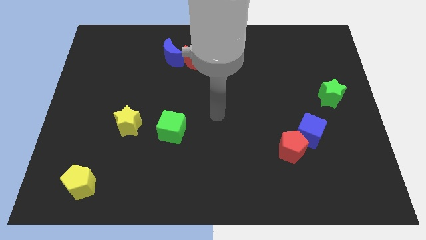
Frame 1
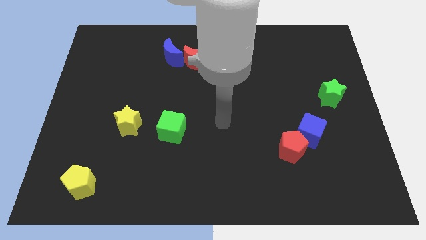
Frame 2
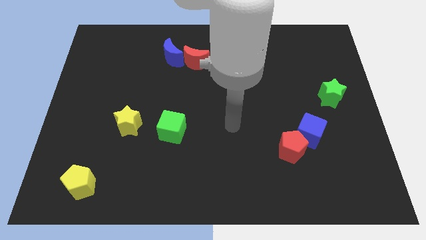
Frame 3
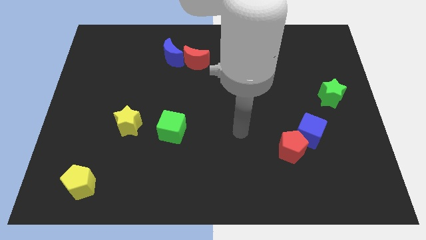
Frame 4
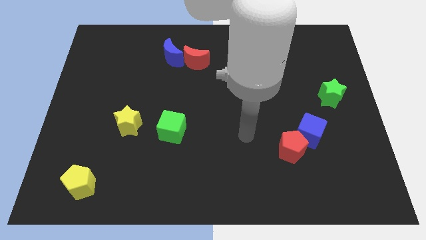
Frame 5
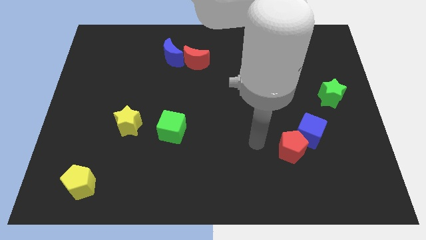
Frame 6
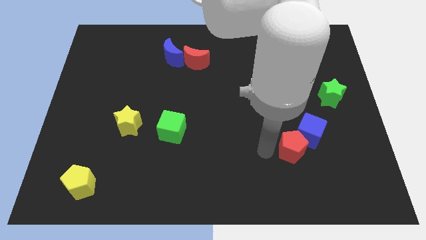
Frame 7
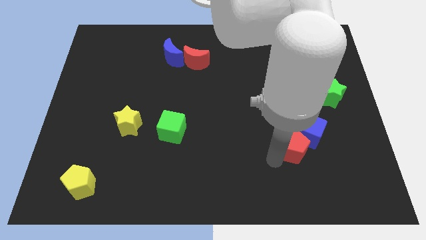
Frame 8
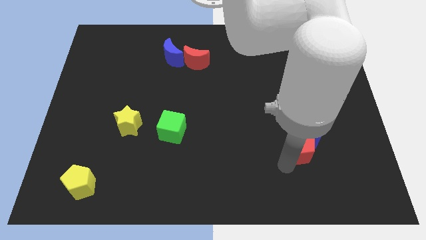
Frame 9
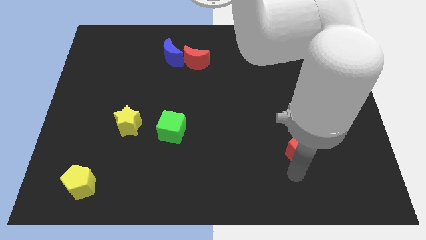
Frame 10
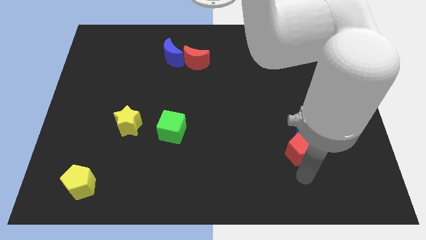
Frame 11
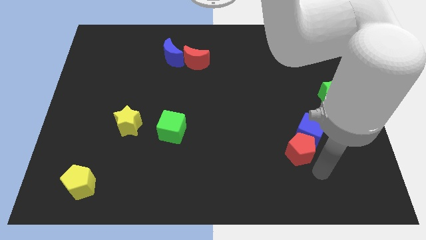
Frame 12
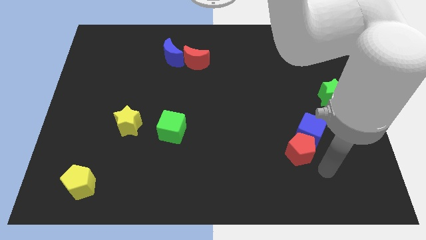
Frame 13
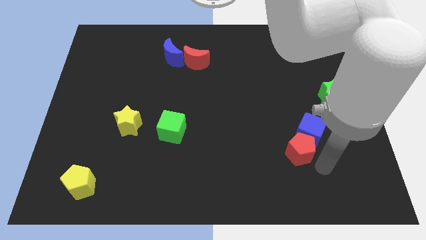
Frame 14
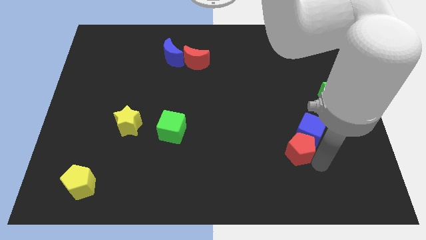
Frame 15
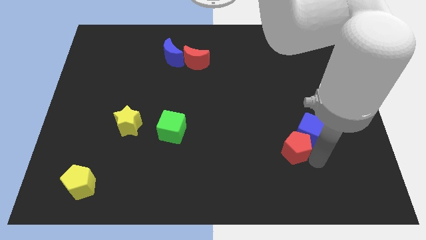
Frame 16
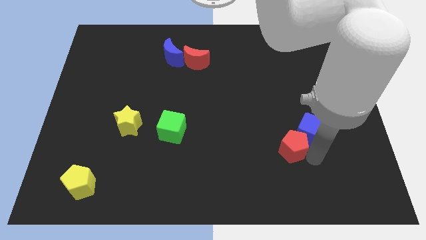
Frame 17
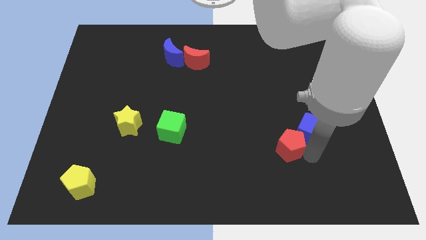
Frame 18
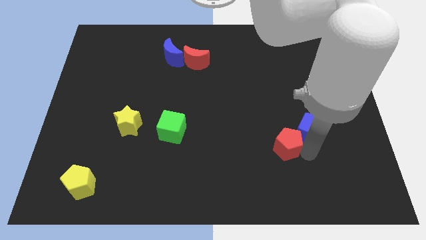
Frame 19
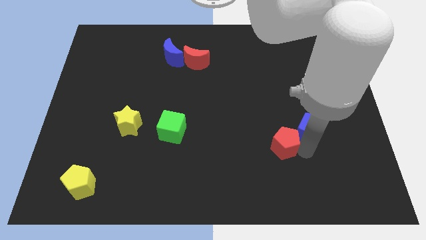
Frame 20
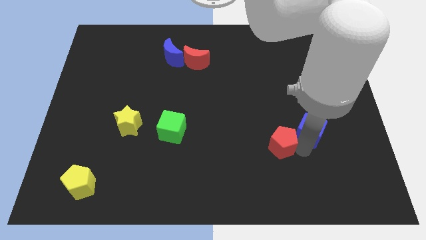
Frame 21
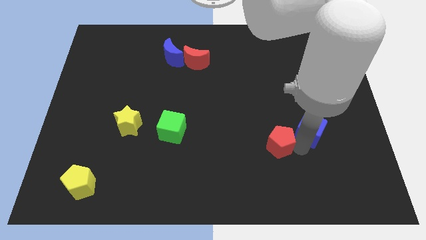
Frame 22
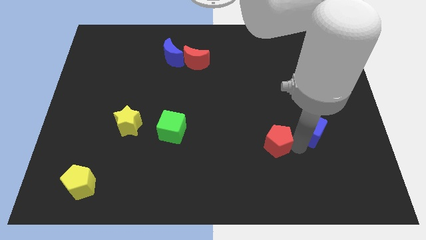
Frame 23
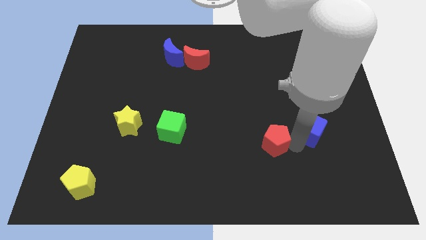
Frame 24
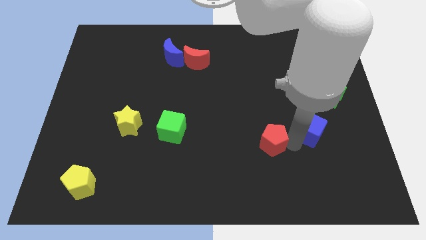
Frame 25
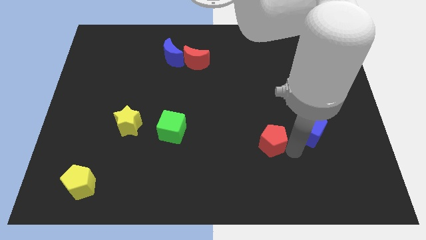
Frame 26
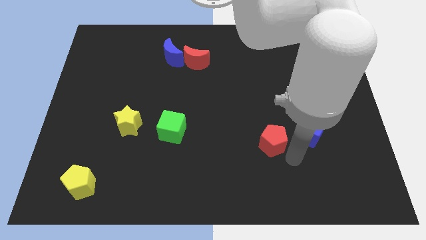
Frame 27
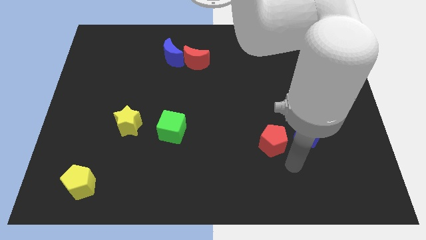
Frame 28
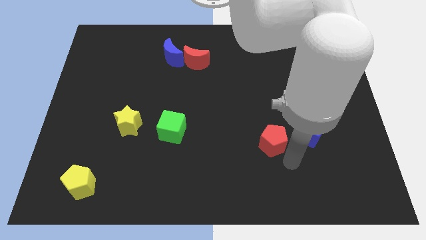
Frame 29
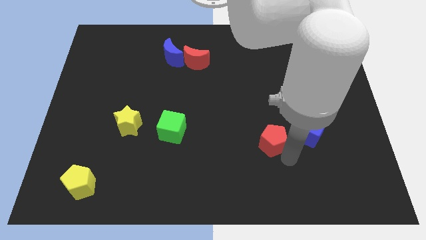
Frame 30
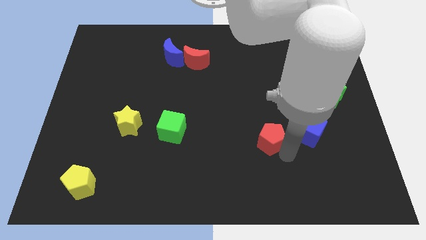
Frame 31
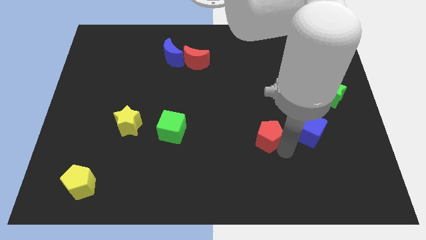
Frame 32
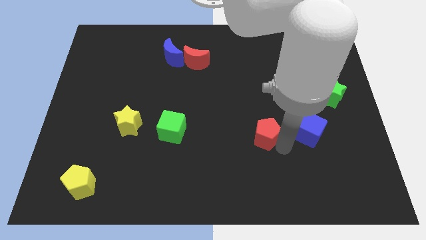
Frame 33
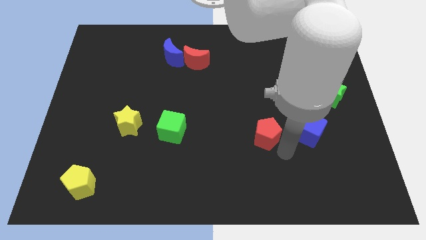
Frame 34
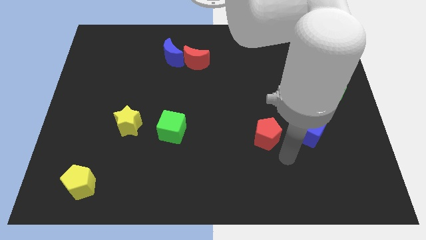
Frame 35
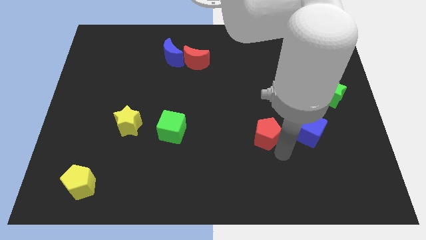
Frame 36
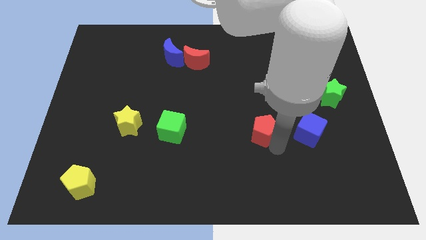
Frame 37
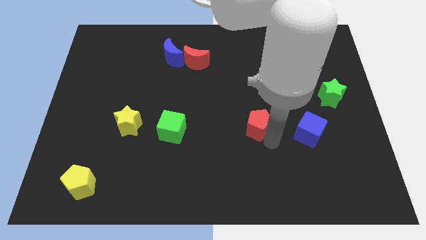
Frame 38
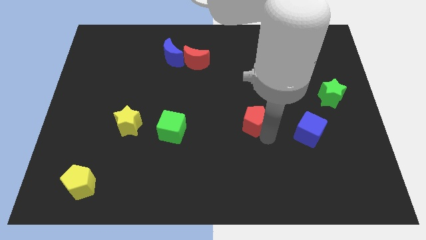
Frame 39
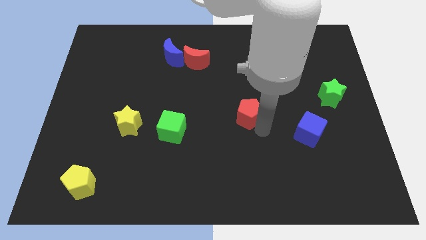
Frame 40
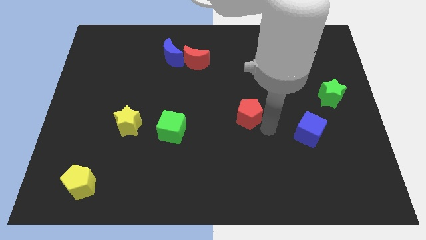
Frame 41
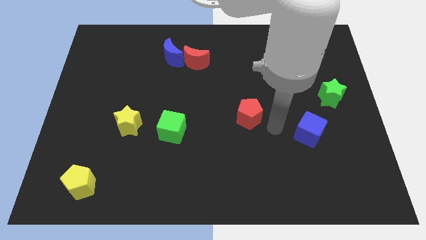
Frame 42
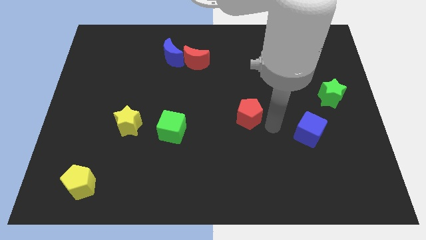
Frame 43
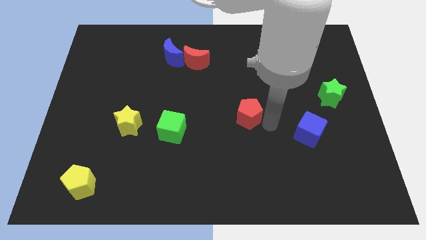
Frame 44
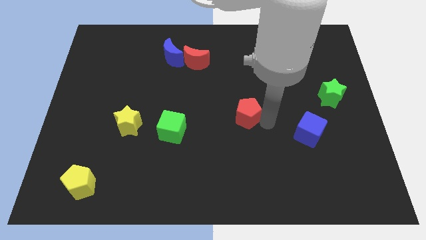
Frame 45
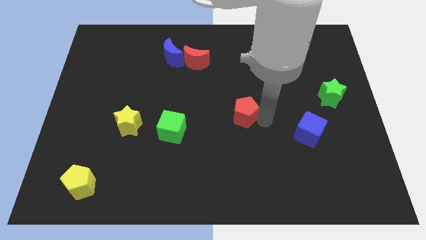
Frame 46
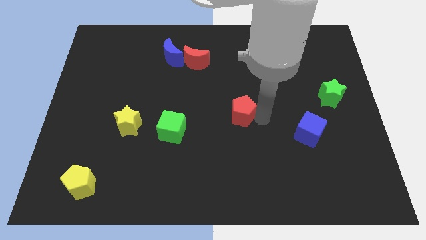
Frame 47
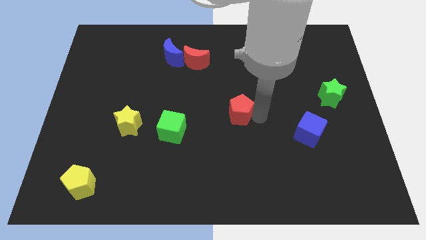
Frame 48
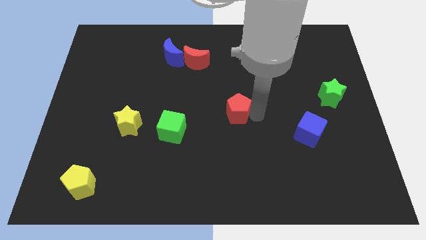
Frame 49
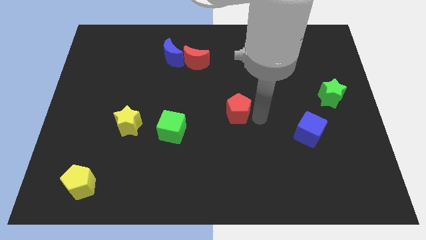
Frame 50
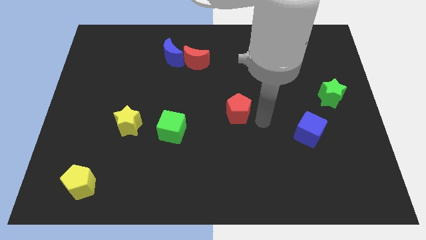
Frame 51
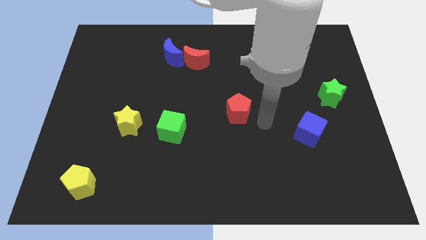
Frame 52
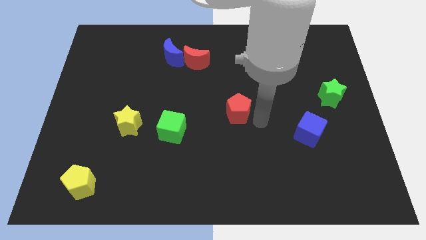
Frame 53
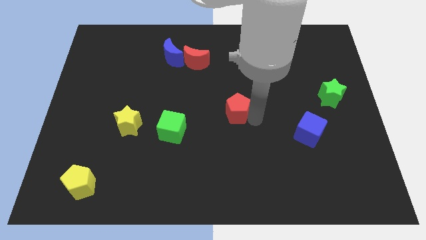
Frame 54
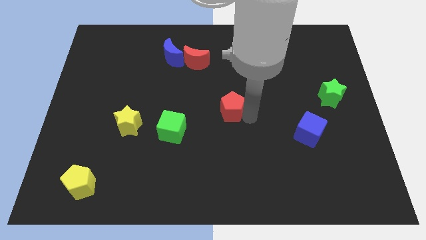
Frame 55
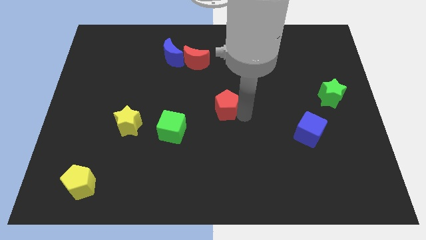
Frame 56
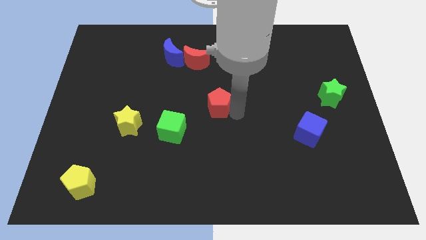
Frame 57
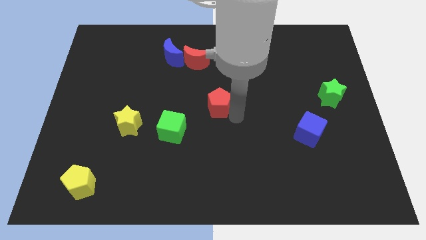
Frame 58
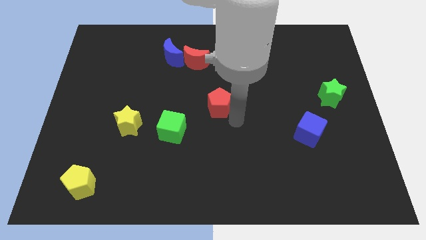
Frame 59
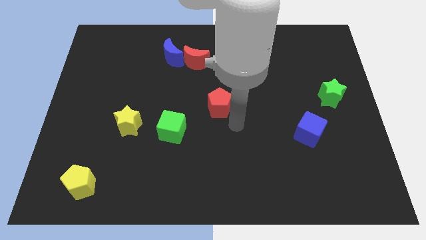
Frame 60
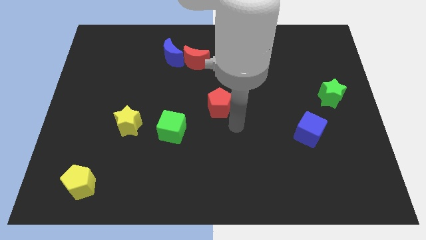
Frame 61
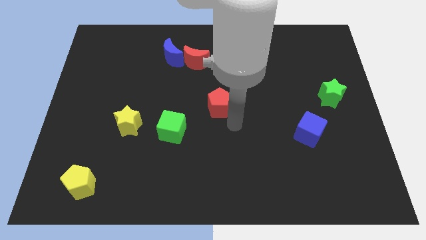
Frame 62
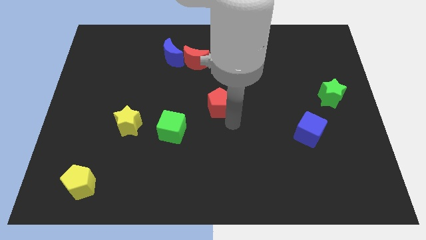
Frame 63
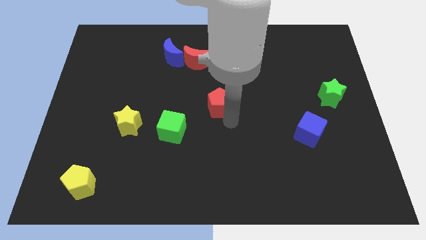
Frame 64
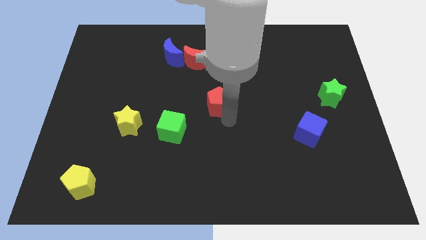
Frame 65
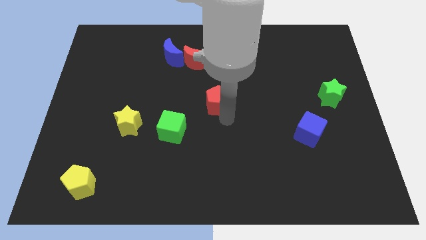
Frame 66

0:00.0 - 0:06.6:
move the red pentagon upwards and then left

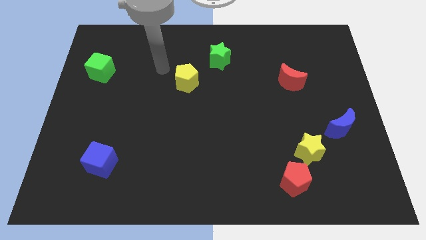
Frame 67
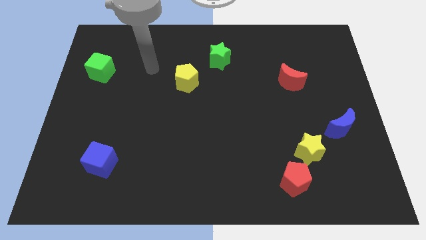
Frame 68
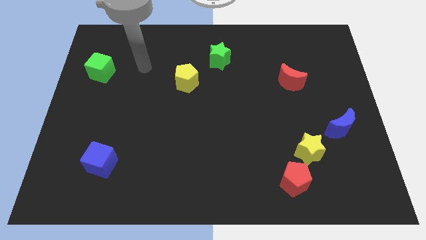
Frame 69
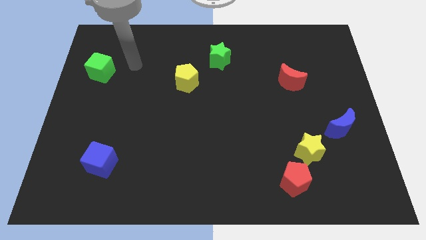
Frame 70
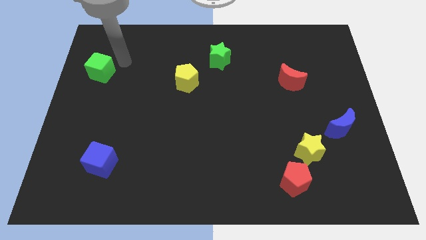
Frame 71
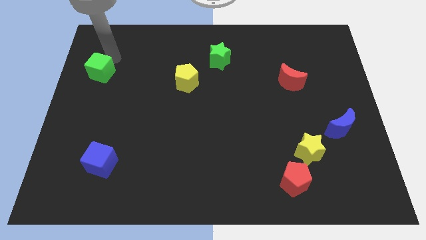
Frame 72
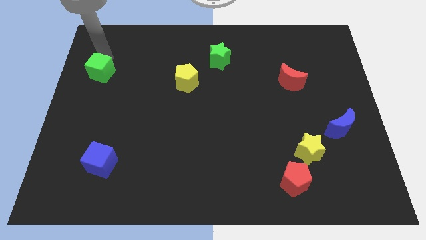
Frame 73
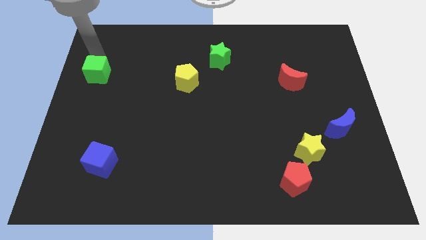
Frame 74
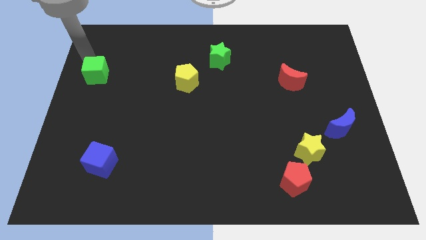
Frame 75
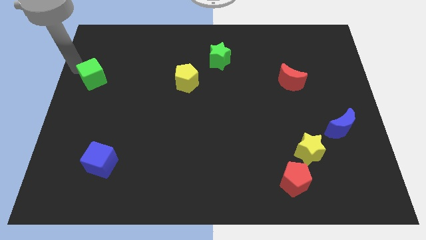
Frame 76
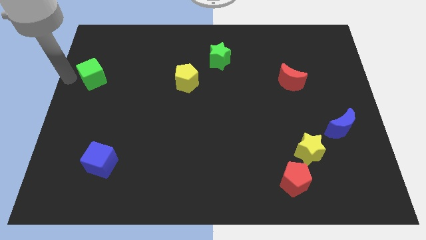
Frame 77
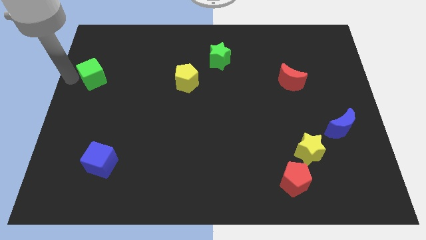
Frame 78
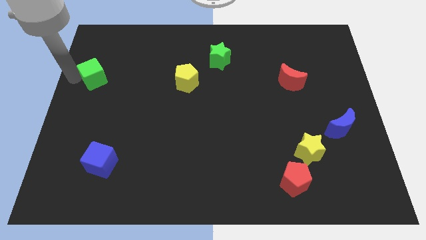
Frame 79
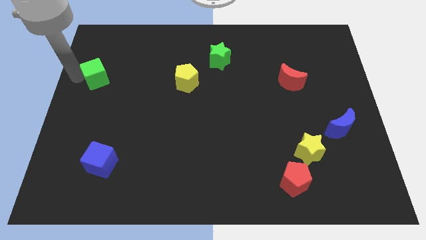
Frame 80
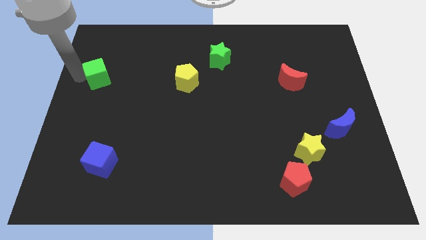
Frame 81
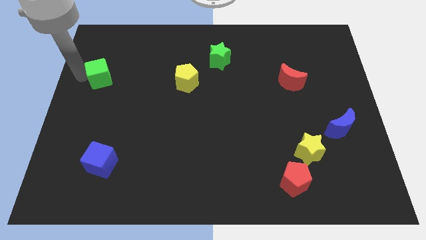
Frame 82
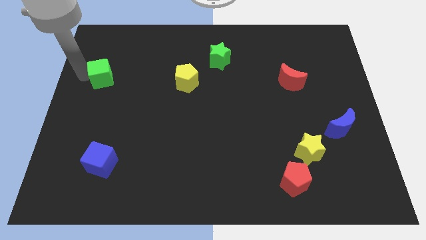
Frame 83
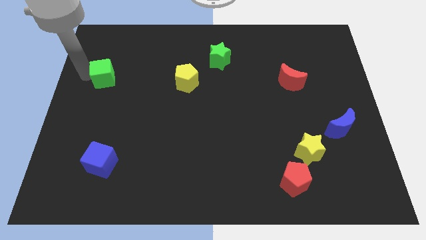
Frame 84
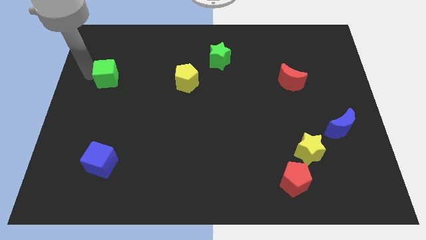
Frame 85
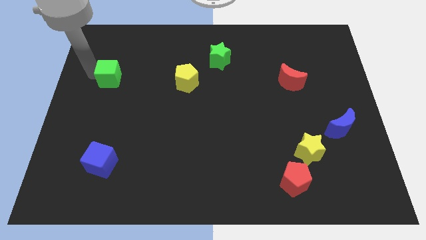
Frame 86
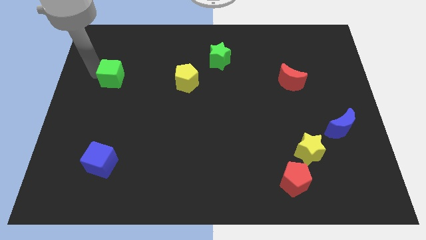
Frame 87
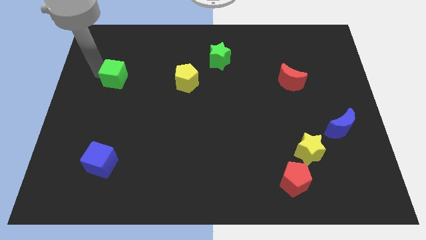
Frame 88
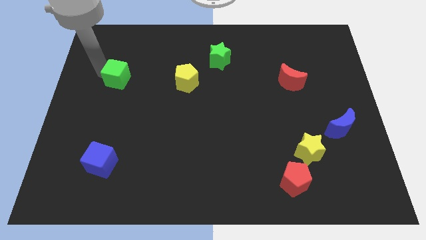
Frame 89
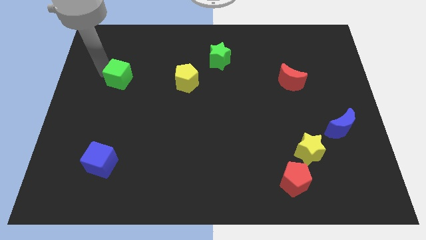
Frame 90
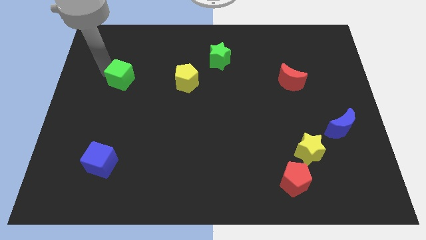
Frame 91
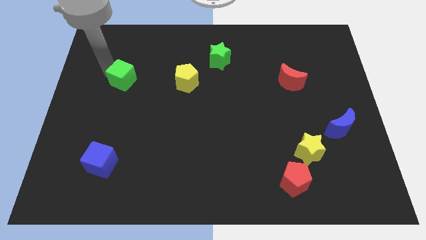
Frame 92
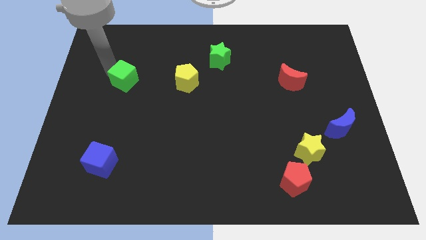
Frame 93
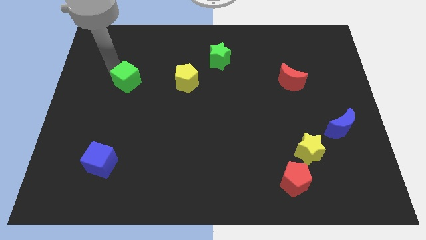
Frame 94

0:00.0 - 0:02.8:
push the green cube somewhat down and right diagonally
